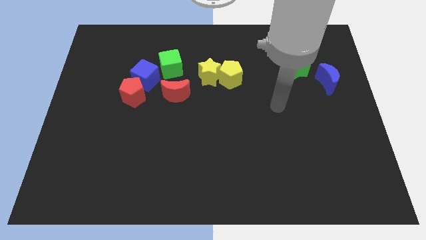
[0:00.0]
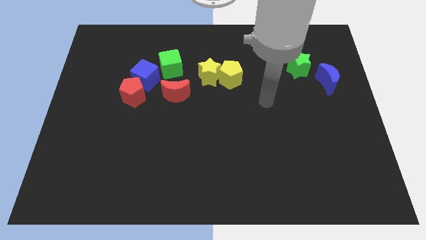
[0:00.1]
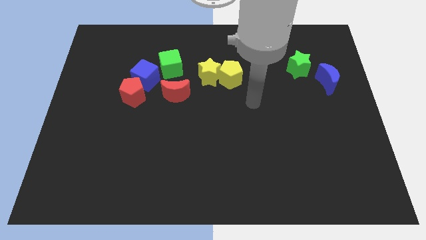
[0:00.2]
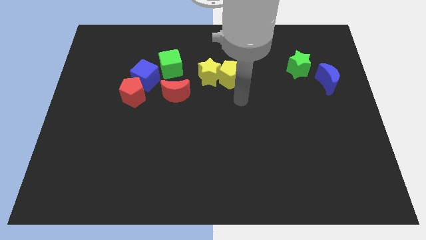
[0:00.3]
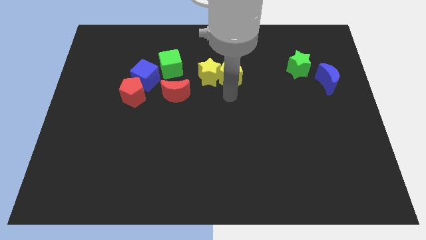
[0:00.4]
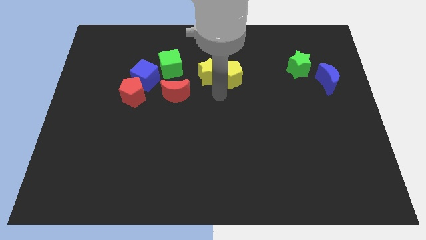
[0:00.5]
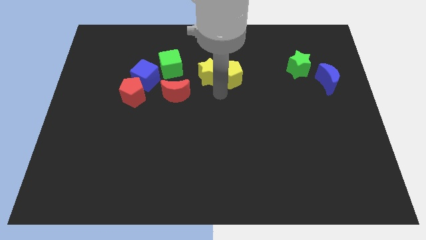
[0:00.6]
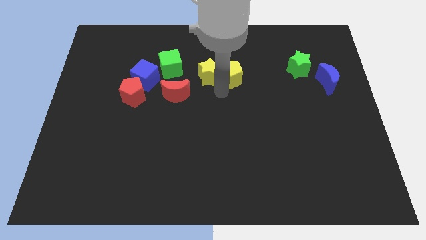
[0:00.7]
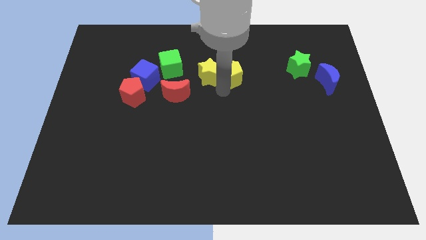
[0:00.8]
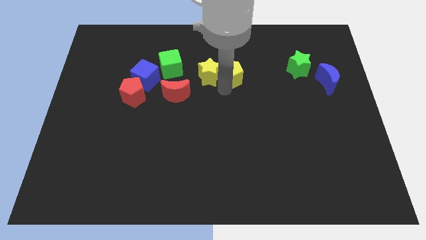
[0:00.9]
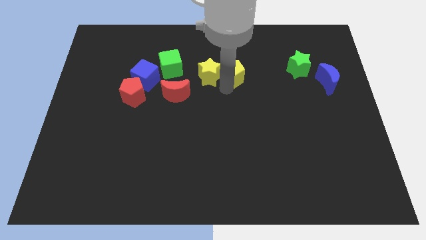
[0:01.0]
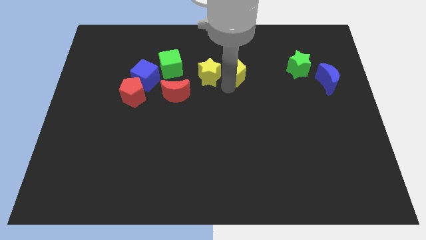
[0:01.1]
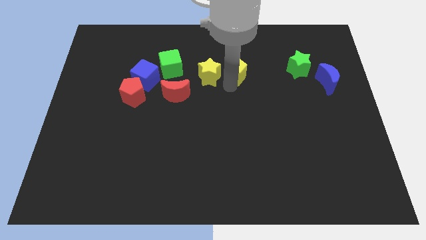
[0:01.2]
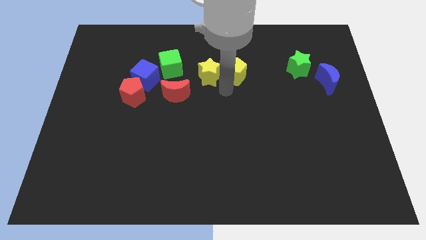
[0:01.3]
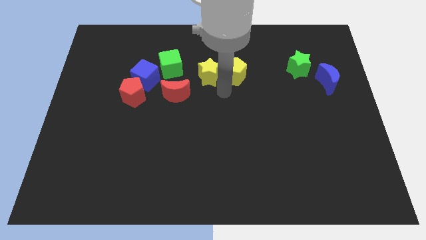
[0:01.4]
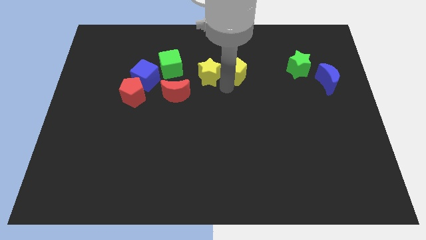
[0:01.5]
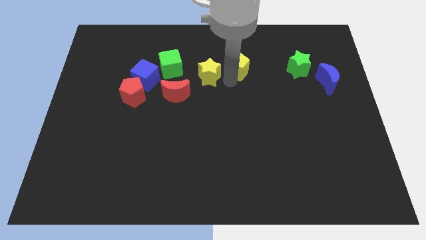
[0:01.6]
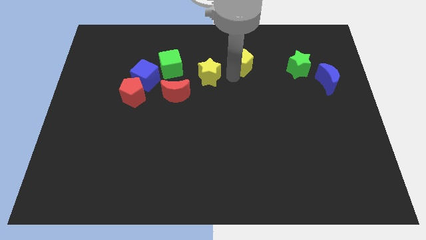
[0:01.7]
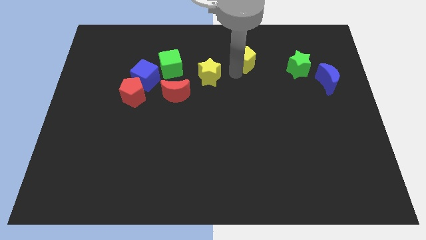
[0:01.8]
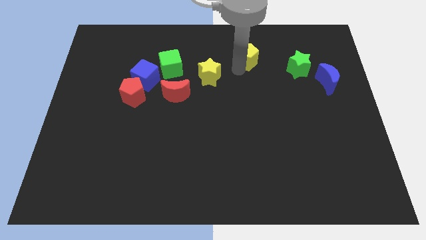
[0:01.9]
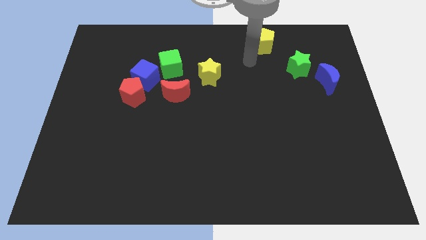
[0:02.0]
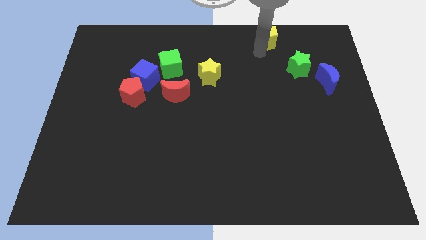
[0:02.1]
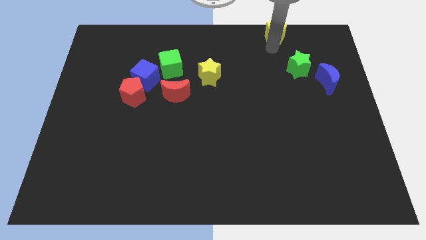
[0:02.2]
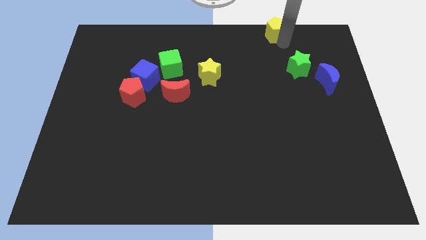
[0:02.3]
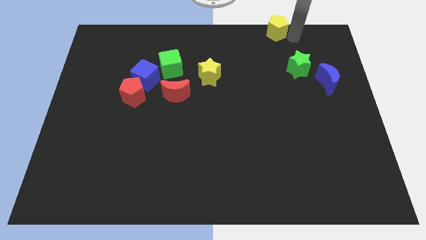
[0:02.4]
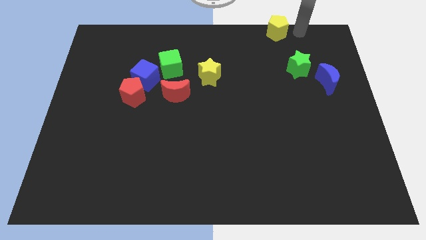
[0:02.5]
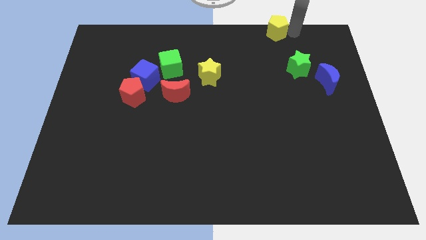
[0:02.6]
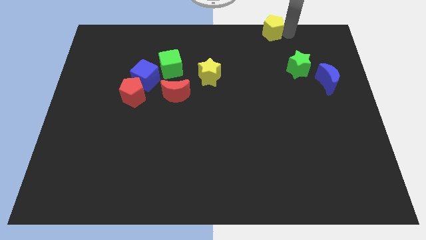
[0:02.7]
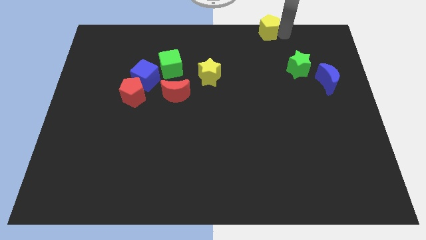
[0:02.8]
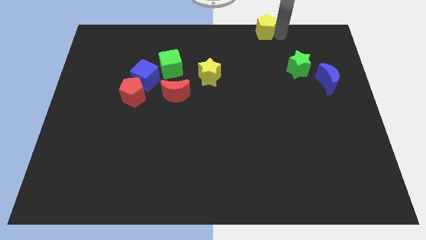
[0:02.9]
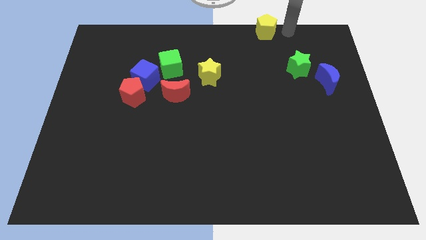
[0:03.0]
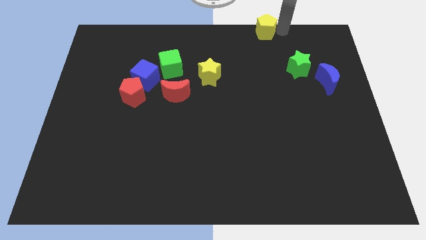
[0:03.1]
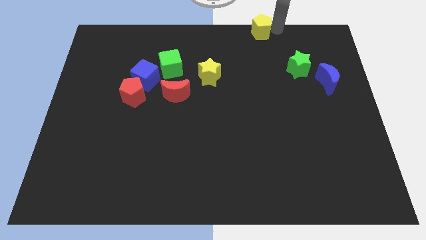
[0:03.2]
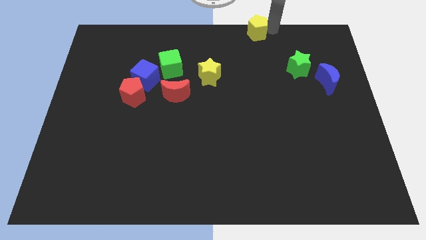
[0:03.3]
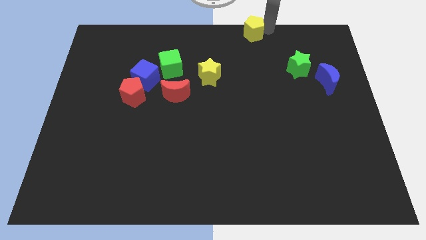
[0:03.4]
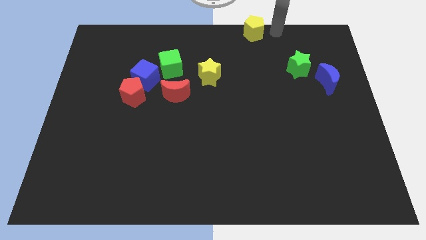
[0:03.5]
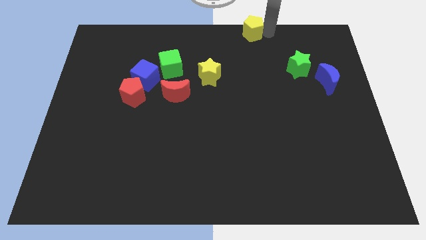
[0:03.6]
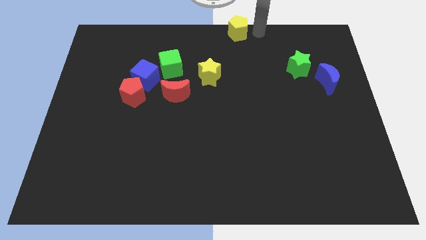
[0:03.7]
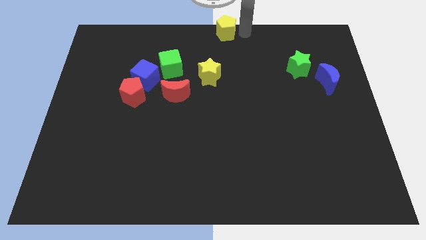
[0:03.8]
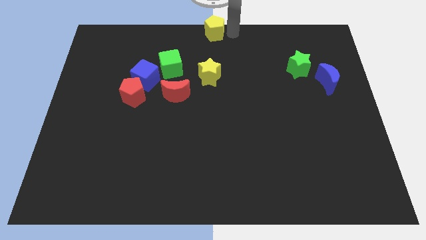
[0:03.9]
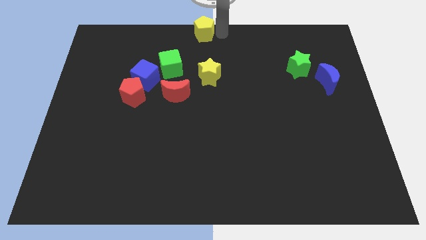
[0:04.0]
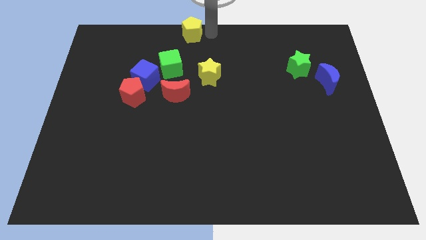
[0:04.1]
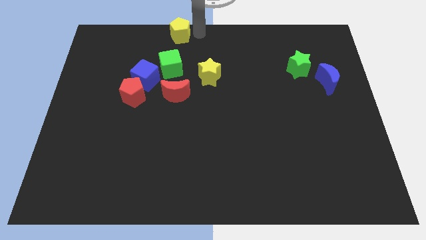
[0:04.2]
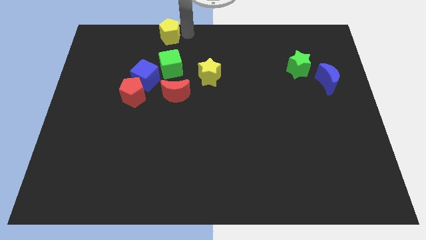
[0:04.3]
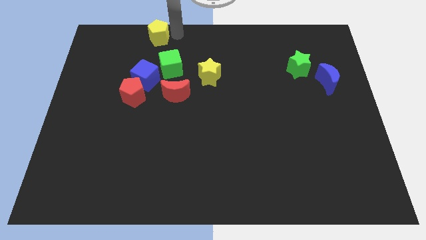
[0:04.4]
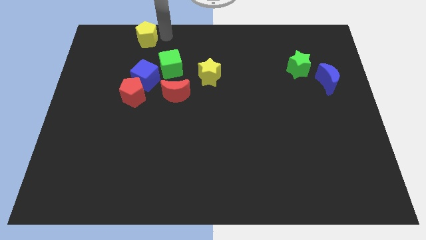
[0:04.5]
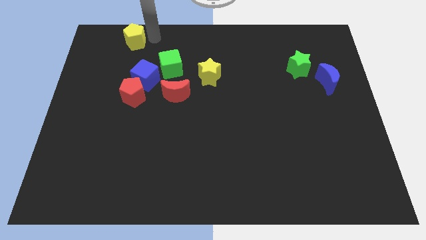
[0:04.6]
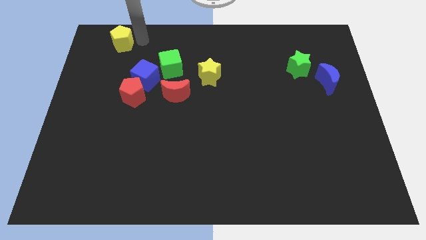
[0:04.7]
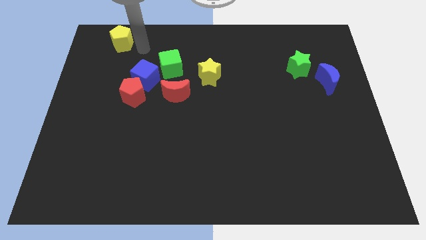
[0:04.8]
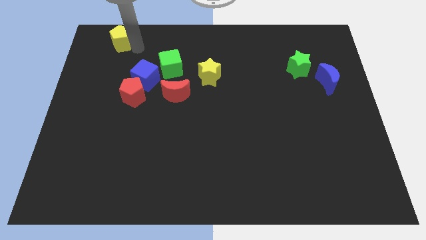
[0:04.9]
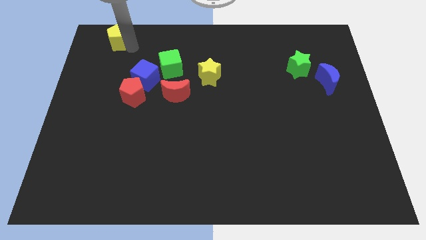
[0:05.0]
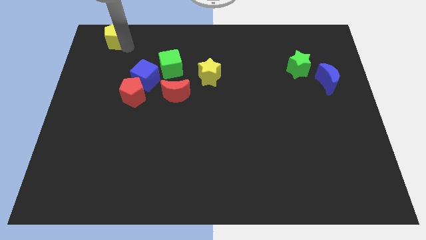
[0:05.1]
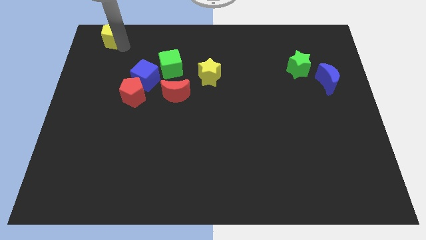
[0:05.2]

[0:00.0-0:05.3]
move the yellow pentagon to the top left of the board

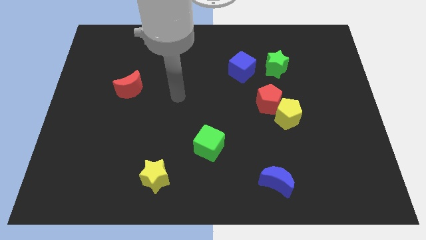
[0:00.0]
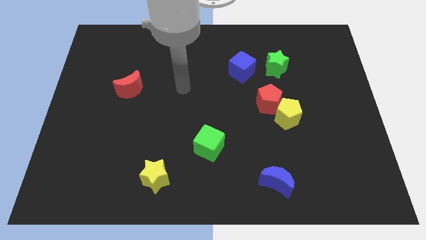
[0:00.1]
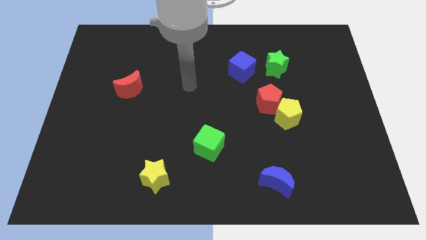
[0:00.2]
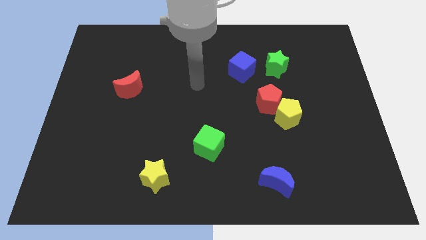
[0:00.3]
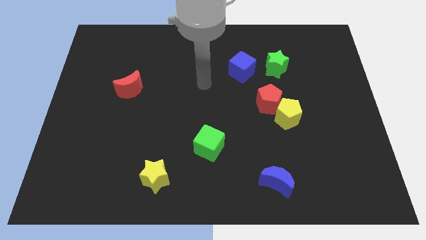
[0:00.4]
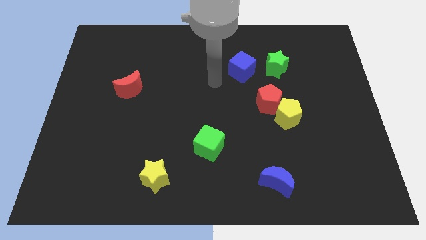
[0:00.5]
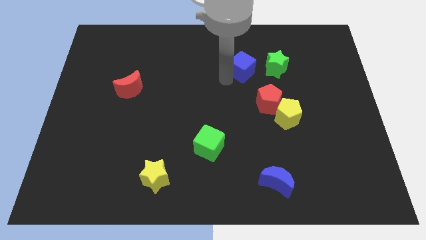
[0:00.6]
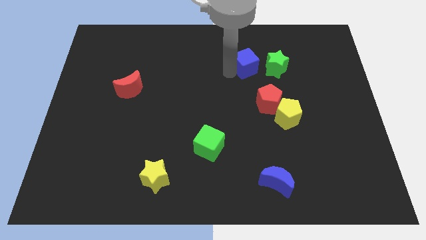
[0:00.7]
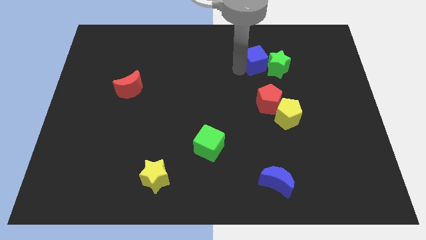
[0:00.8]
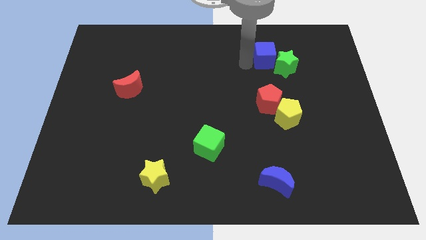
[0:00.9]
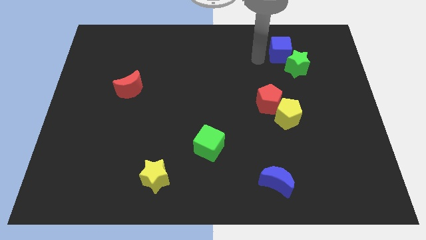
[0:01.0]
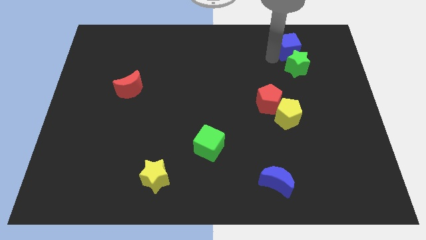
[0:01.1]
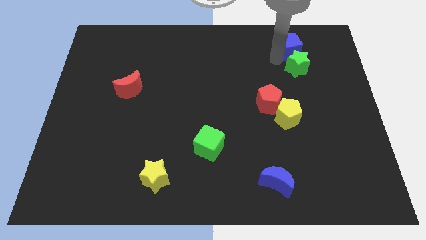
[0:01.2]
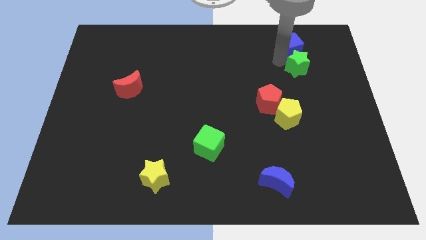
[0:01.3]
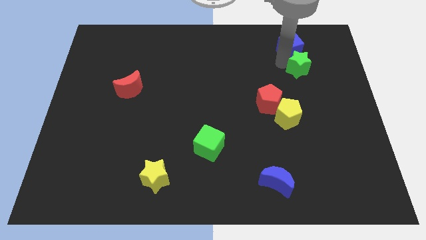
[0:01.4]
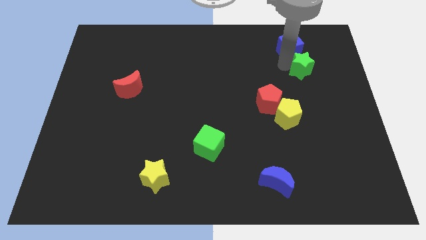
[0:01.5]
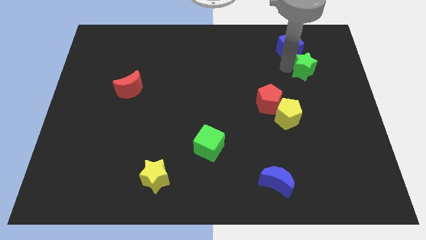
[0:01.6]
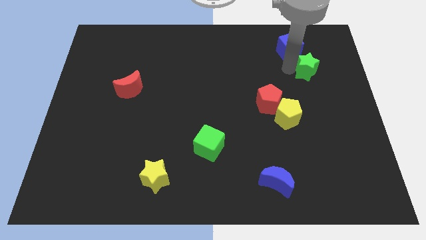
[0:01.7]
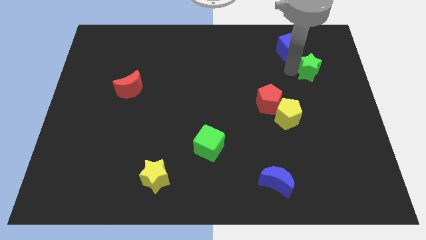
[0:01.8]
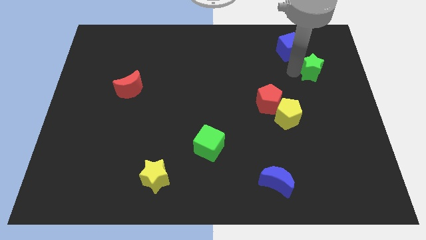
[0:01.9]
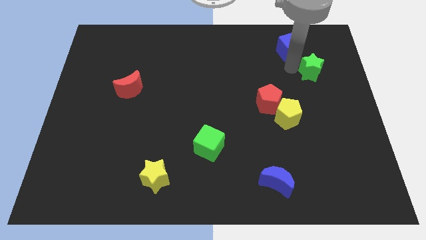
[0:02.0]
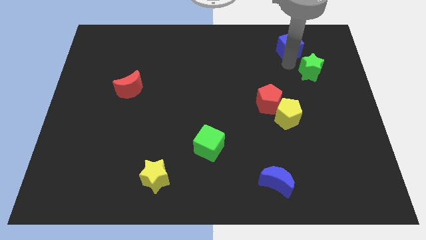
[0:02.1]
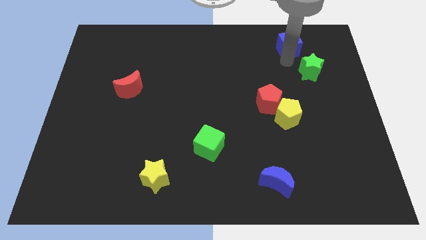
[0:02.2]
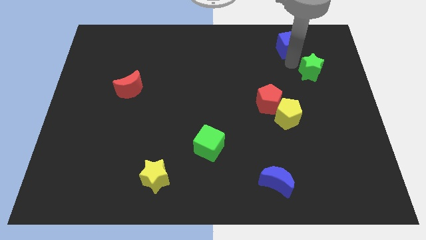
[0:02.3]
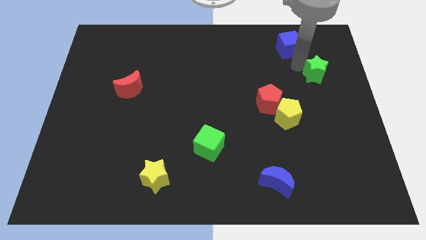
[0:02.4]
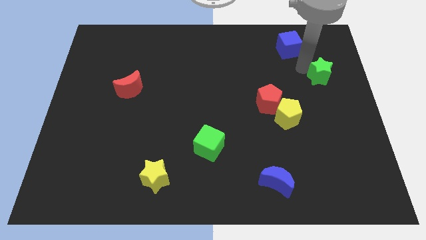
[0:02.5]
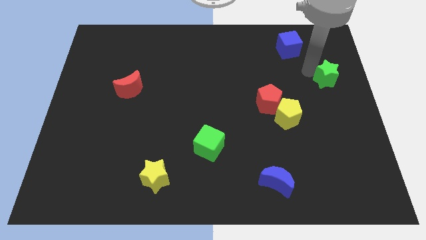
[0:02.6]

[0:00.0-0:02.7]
slide the green star to the center right
